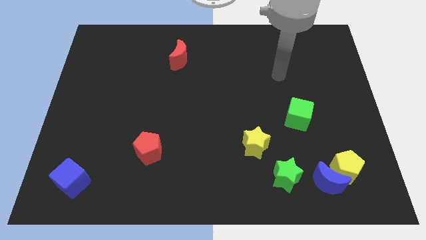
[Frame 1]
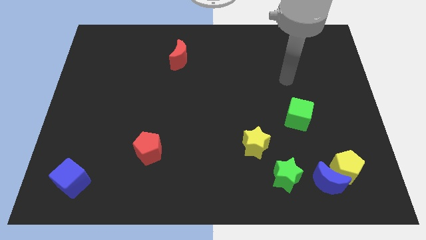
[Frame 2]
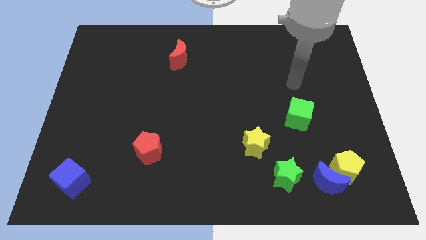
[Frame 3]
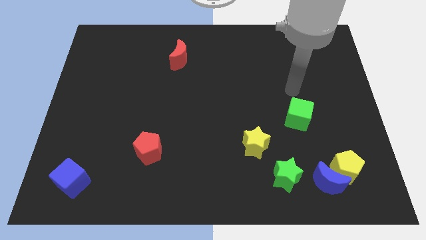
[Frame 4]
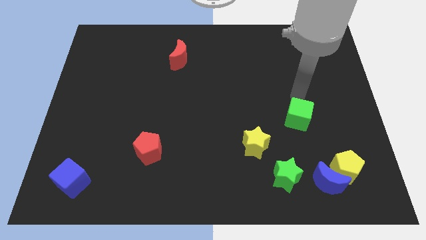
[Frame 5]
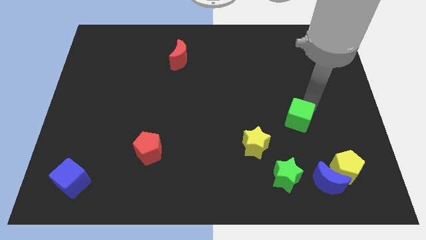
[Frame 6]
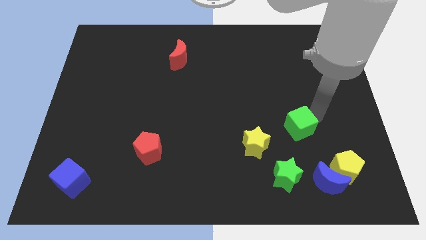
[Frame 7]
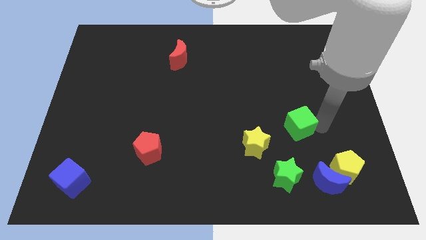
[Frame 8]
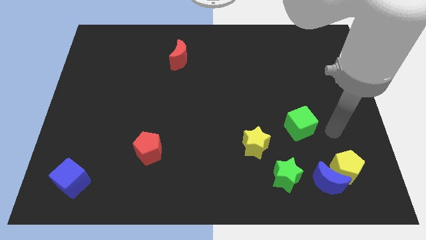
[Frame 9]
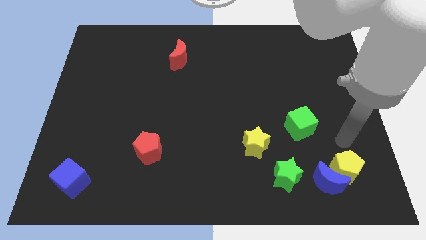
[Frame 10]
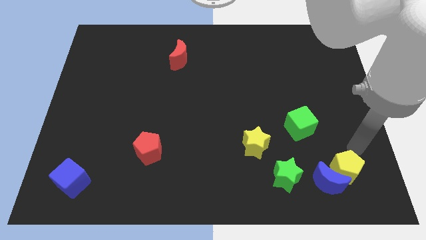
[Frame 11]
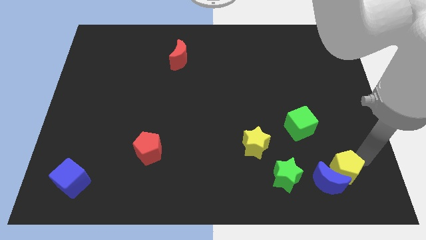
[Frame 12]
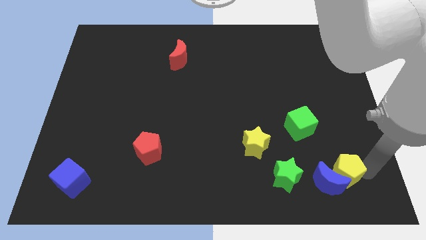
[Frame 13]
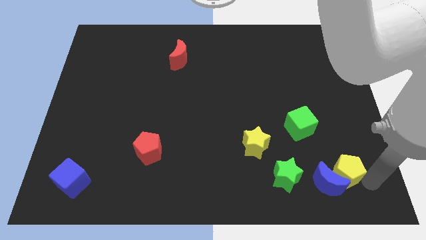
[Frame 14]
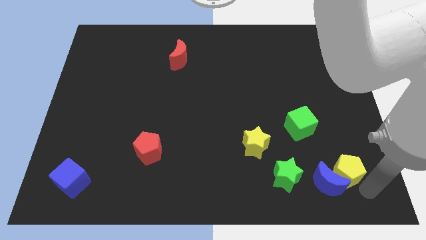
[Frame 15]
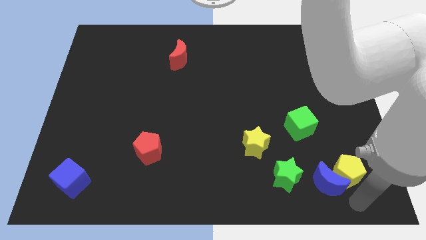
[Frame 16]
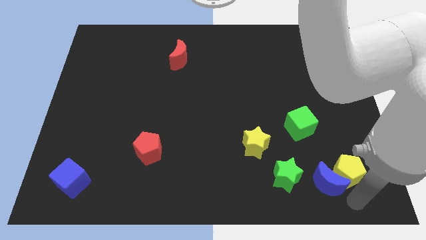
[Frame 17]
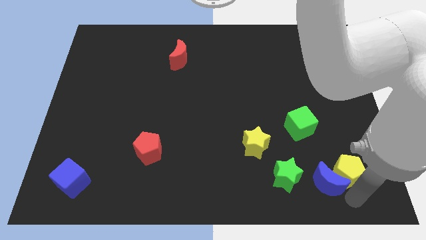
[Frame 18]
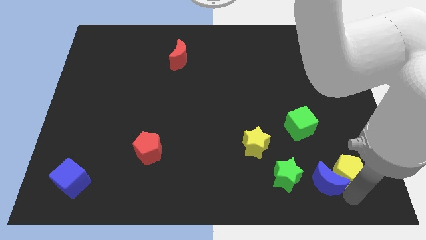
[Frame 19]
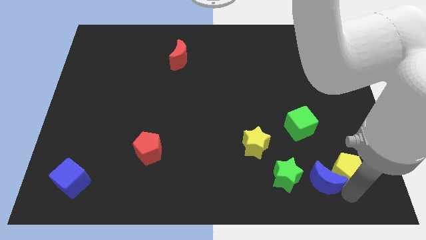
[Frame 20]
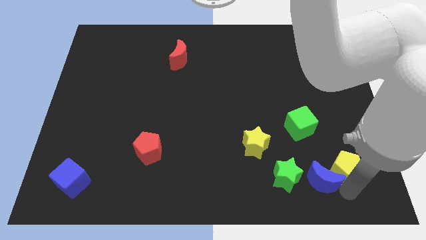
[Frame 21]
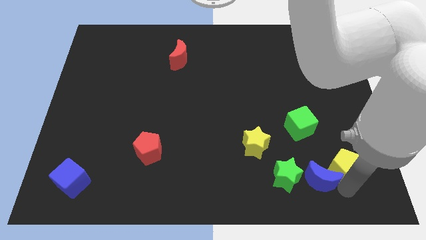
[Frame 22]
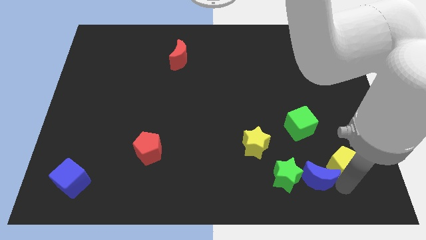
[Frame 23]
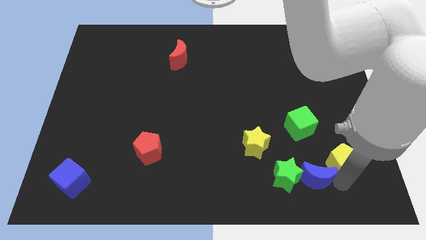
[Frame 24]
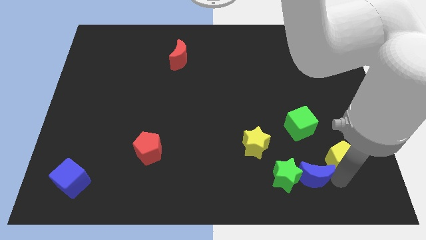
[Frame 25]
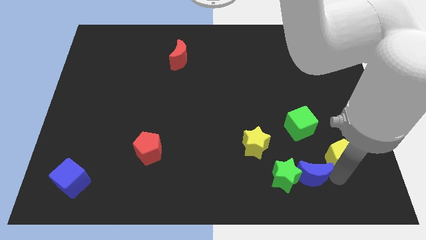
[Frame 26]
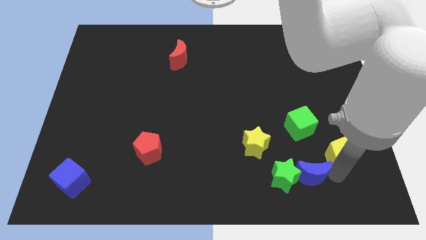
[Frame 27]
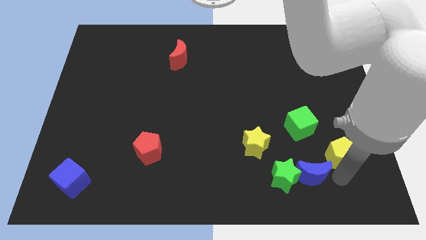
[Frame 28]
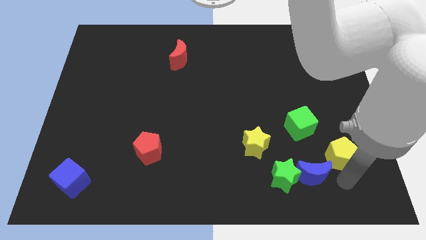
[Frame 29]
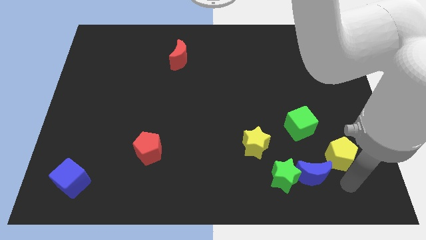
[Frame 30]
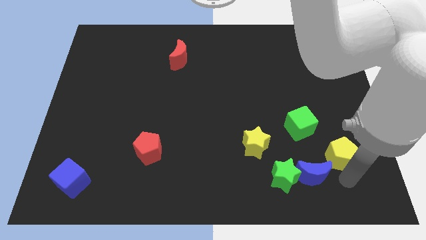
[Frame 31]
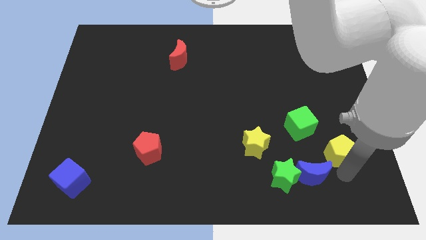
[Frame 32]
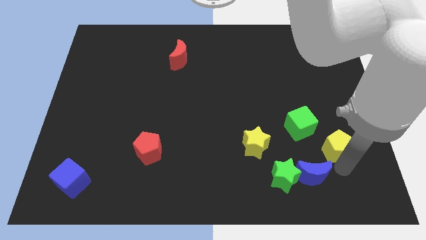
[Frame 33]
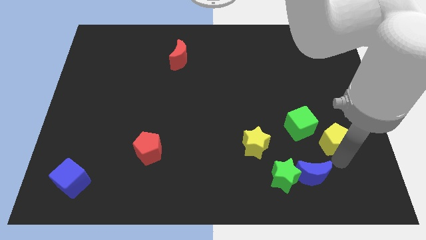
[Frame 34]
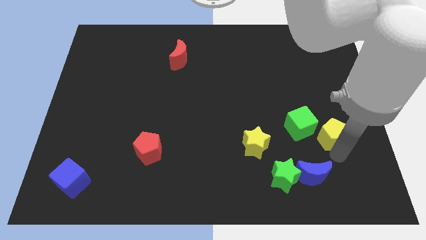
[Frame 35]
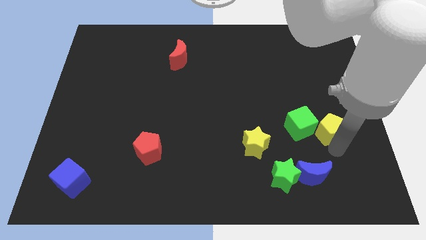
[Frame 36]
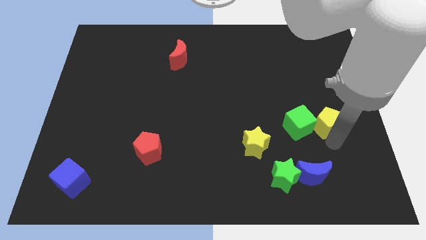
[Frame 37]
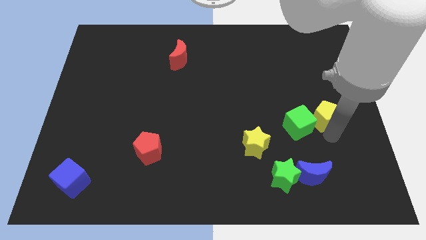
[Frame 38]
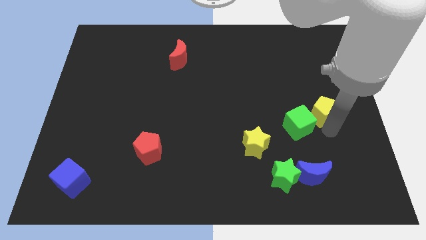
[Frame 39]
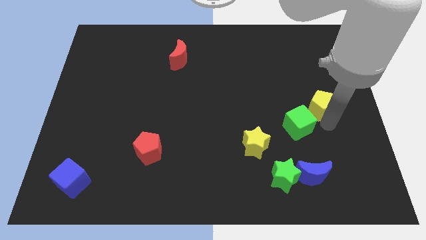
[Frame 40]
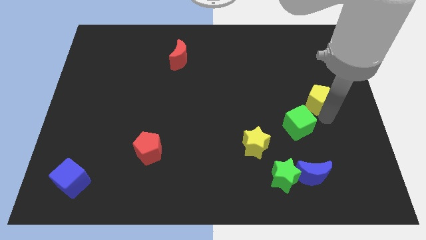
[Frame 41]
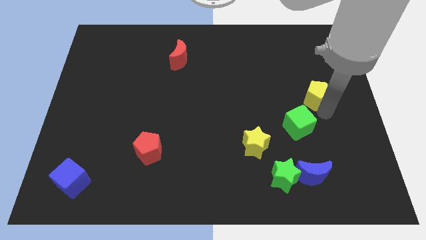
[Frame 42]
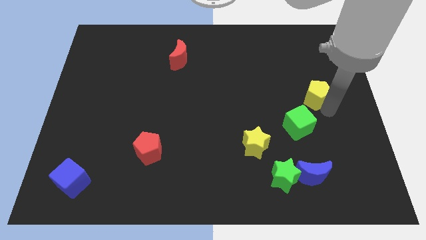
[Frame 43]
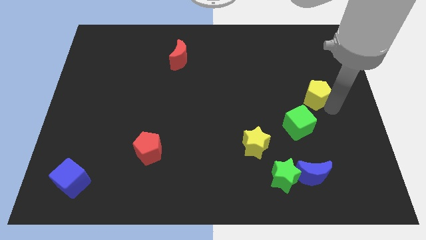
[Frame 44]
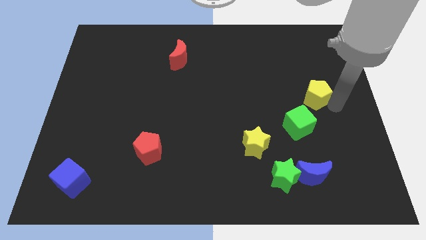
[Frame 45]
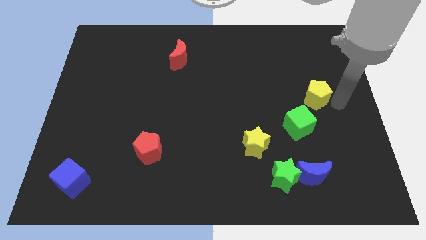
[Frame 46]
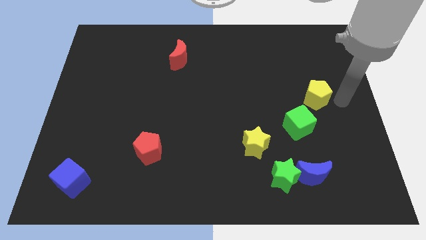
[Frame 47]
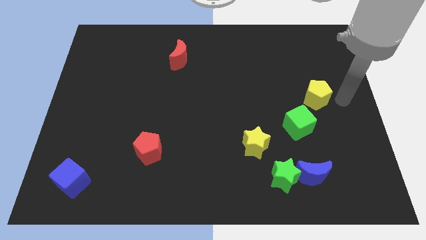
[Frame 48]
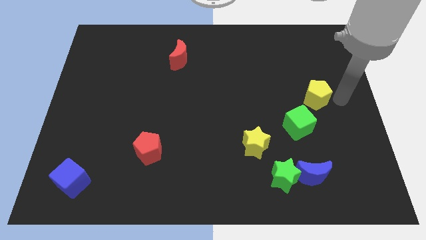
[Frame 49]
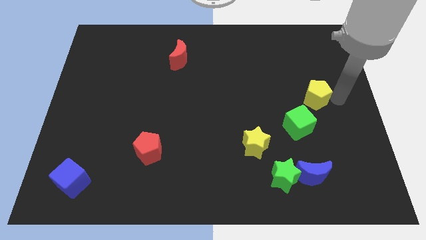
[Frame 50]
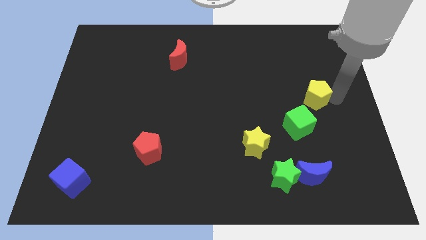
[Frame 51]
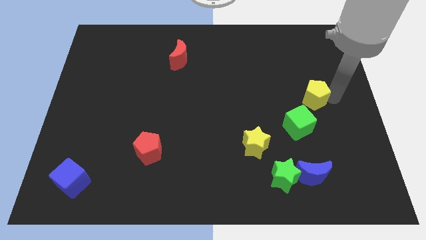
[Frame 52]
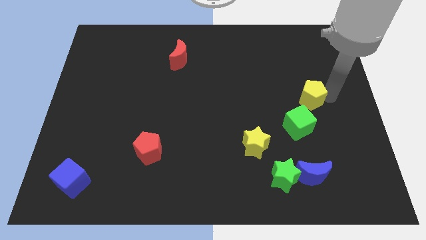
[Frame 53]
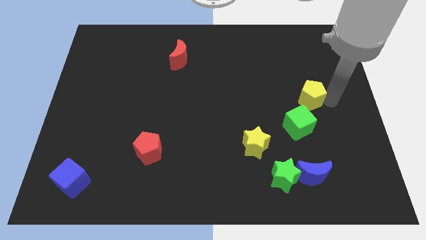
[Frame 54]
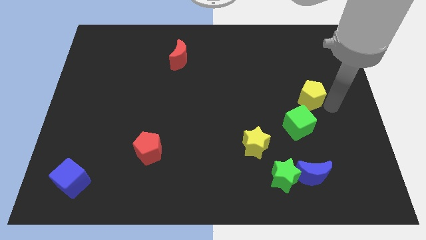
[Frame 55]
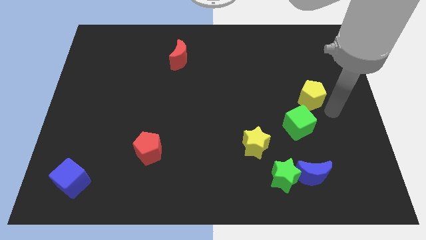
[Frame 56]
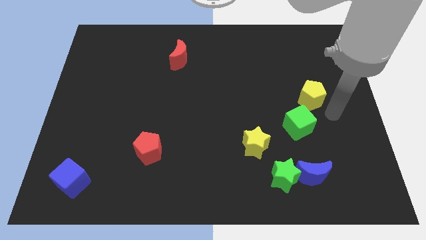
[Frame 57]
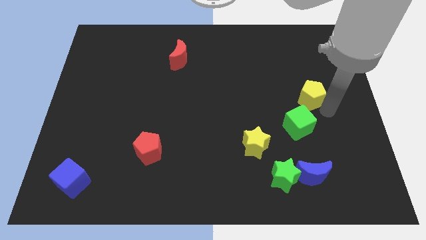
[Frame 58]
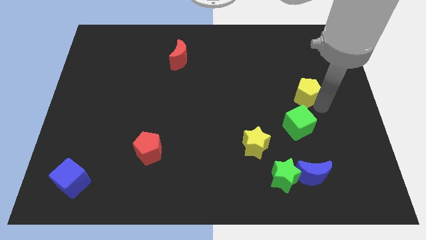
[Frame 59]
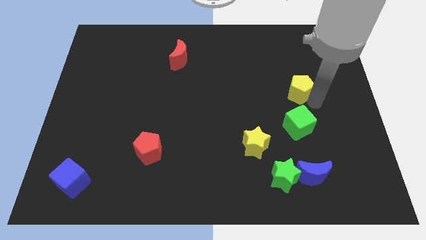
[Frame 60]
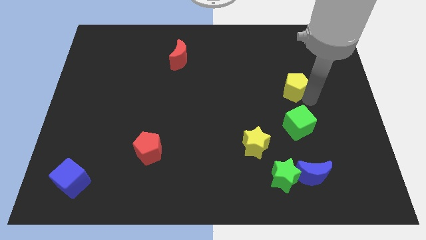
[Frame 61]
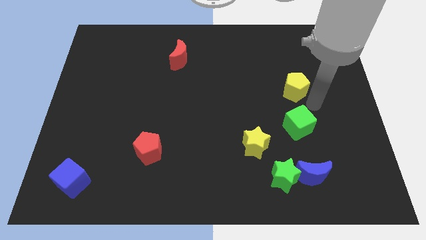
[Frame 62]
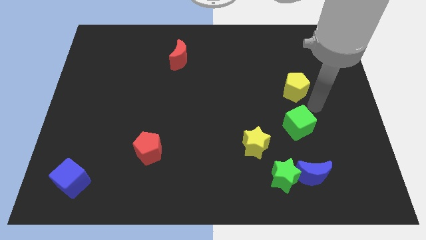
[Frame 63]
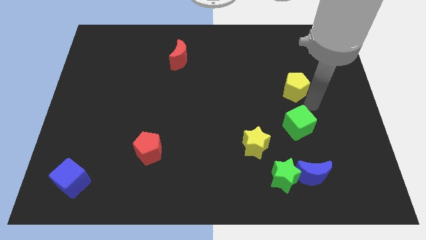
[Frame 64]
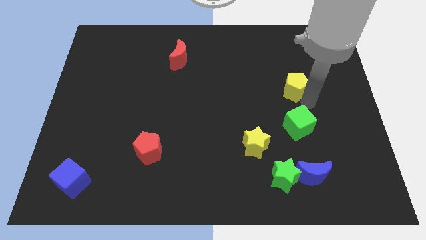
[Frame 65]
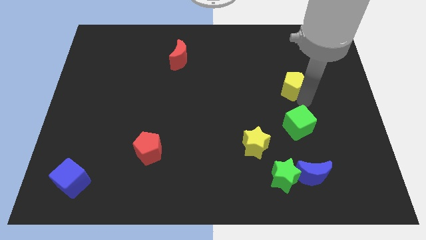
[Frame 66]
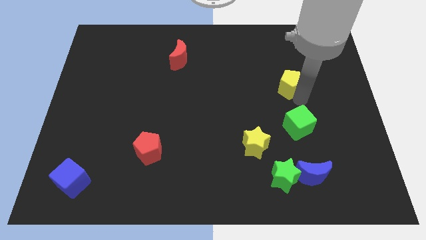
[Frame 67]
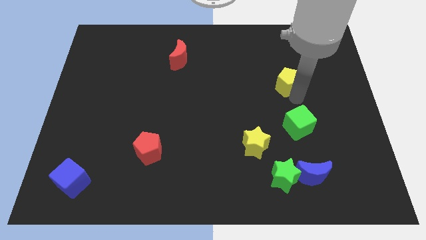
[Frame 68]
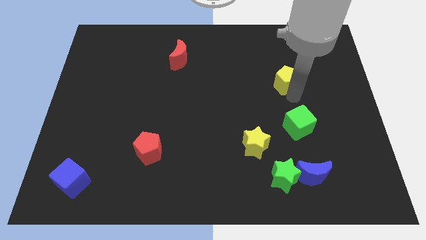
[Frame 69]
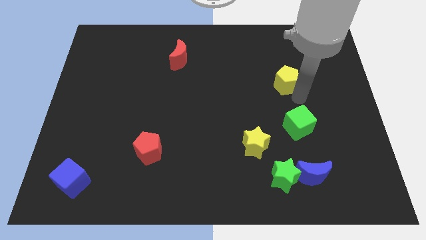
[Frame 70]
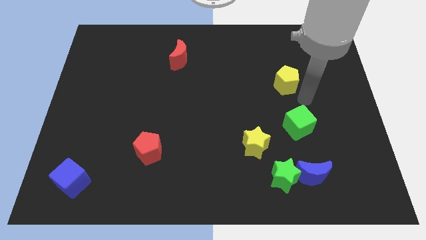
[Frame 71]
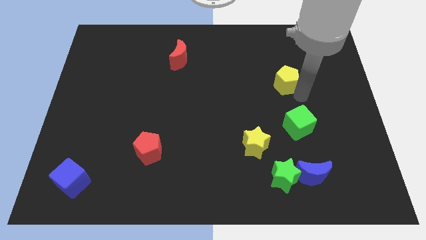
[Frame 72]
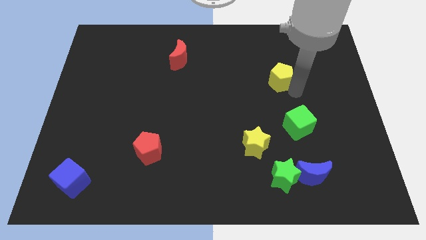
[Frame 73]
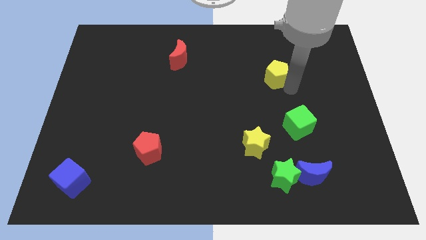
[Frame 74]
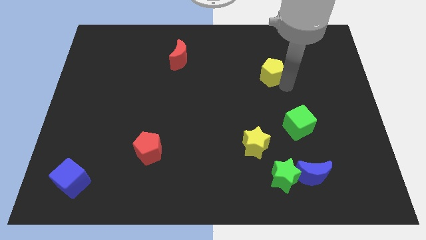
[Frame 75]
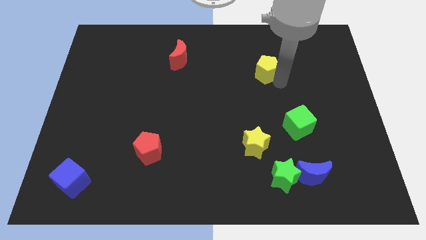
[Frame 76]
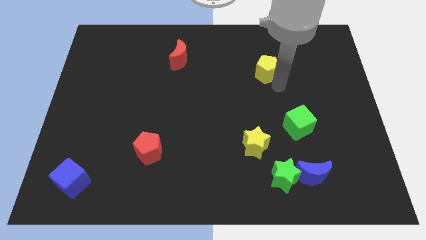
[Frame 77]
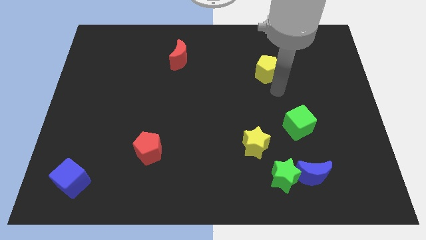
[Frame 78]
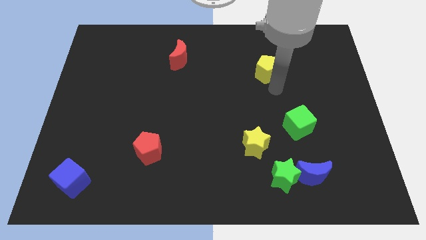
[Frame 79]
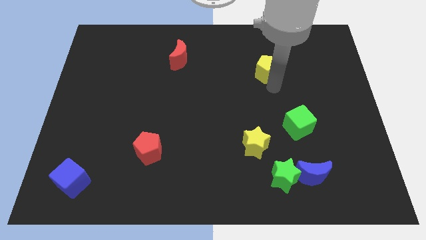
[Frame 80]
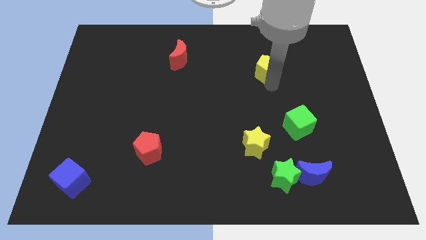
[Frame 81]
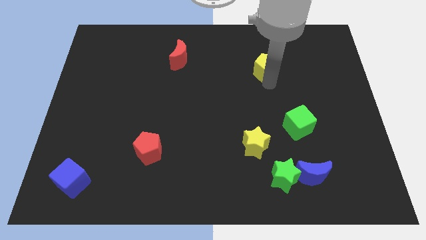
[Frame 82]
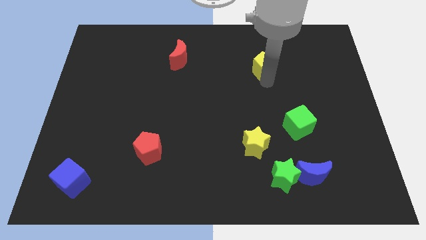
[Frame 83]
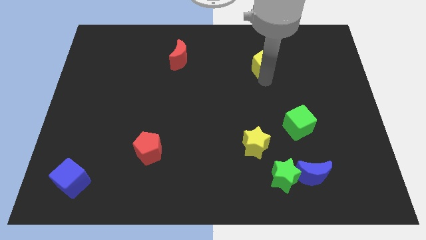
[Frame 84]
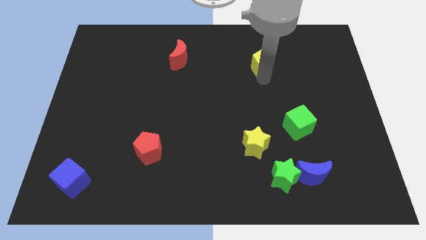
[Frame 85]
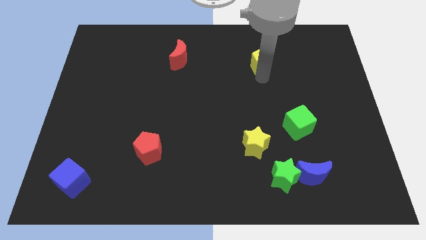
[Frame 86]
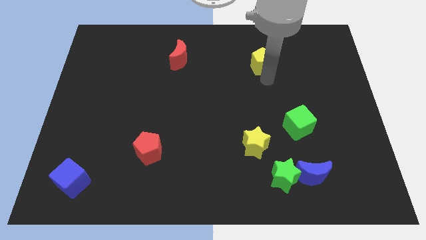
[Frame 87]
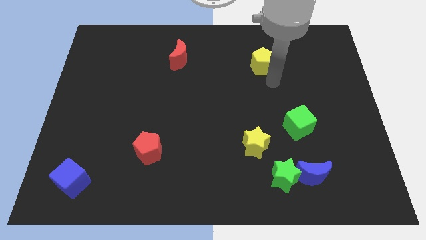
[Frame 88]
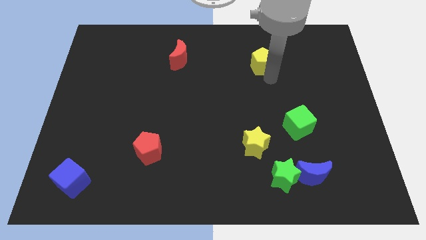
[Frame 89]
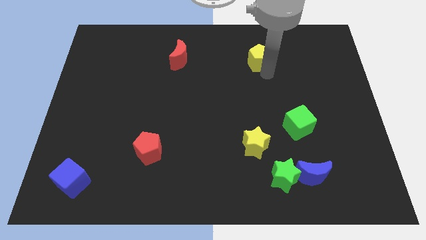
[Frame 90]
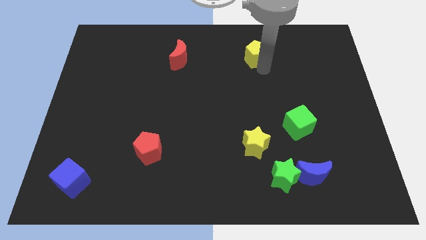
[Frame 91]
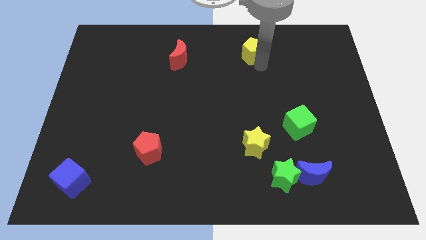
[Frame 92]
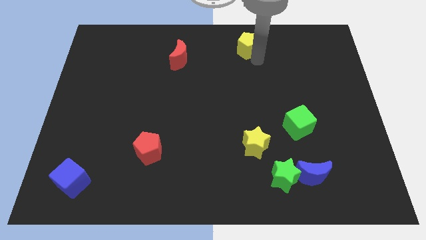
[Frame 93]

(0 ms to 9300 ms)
move the yellow pentagon to the top side
